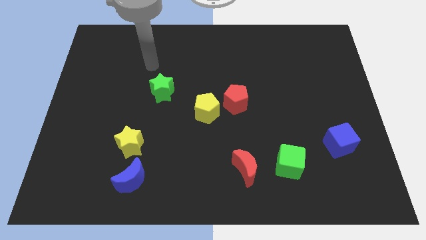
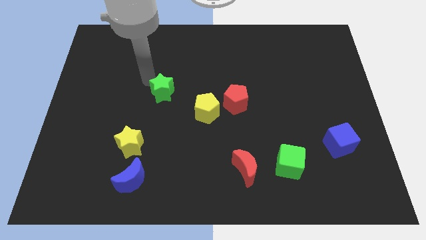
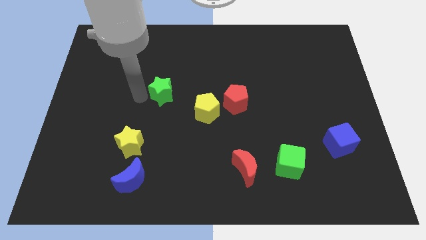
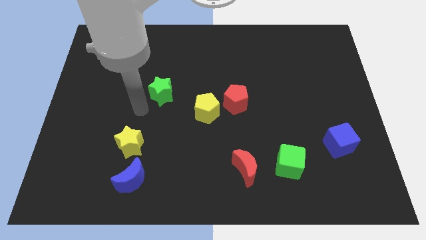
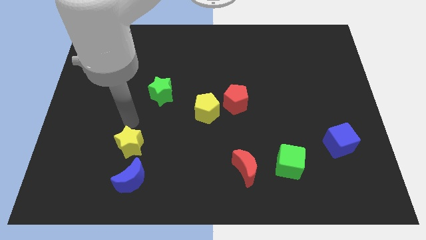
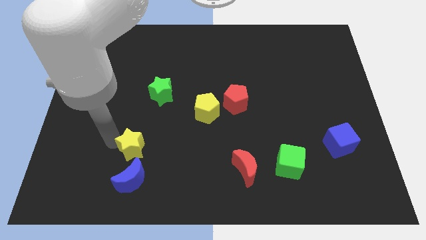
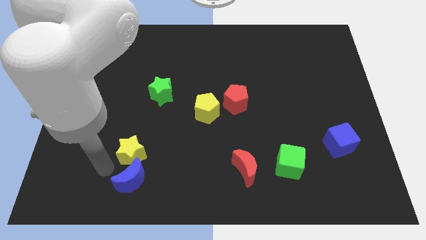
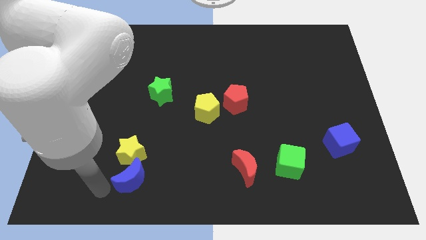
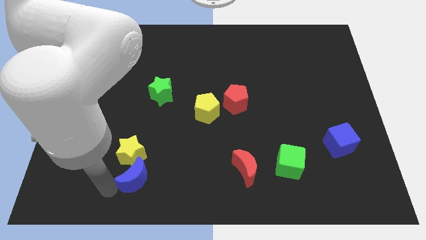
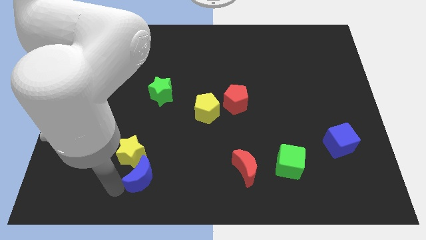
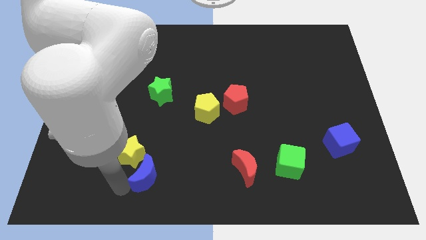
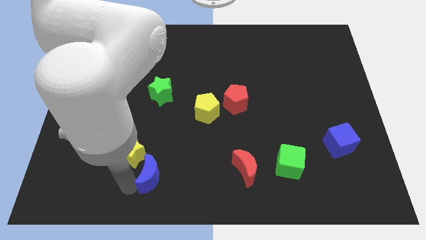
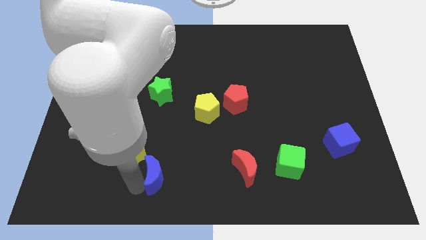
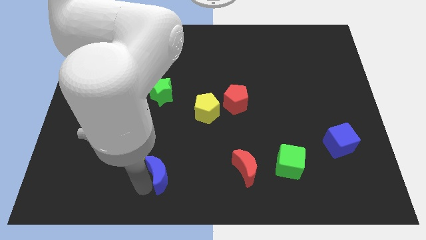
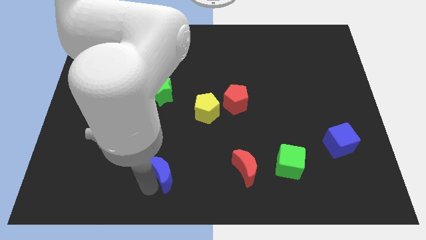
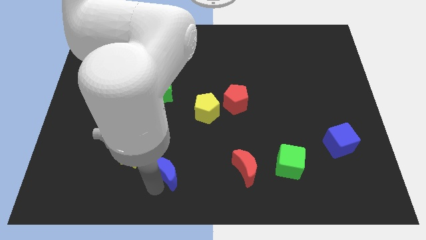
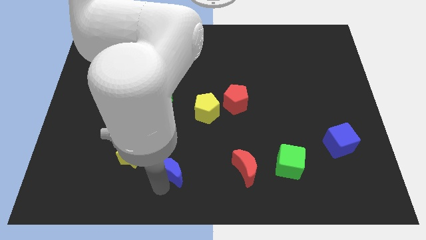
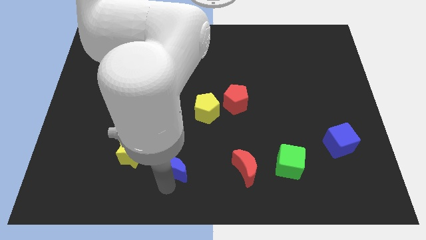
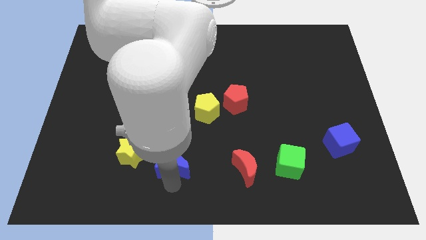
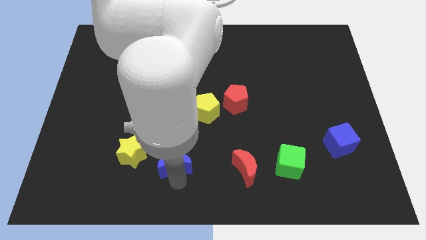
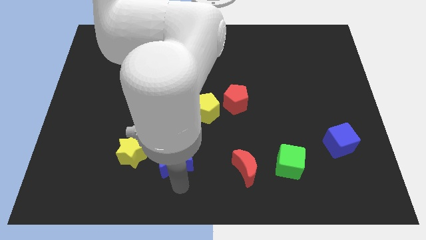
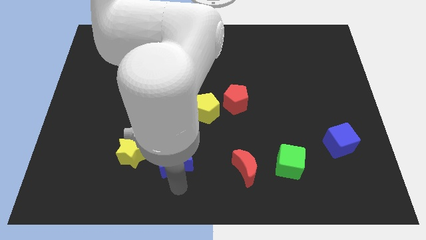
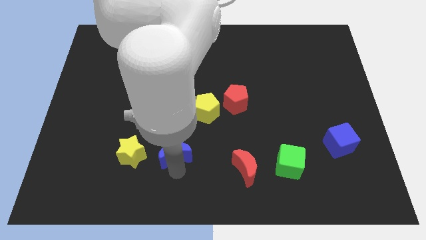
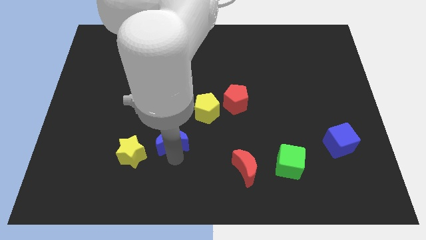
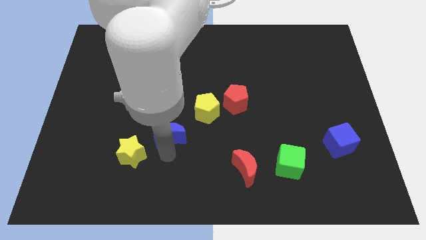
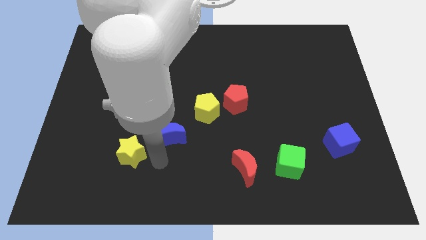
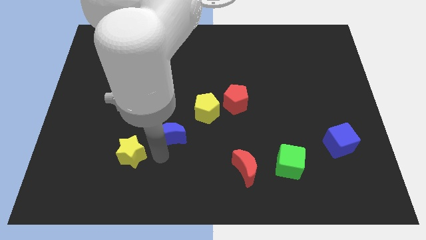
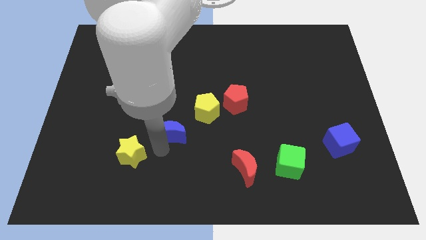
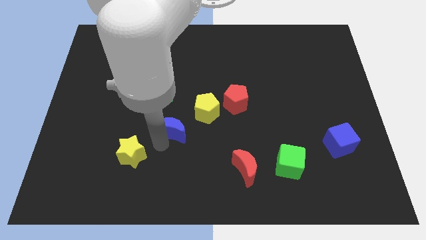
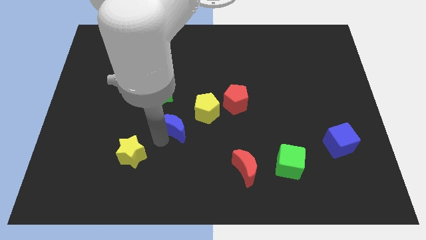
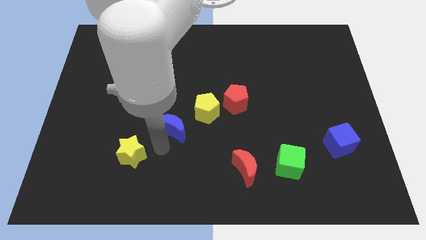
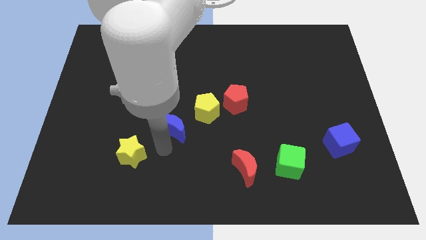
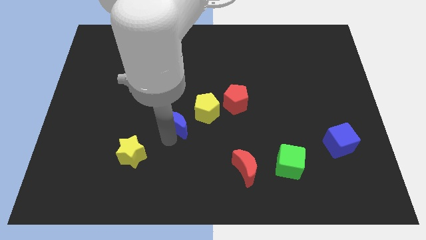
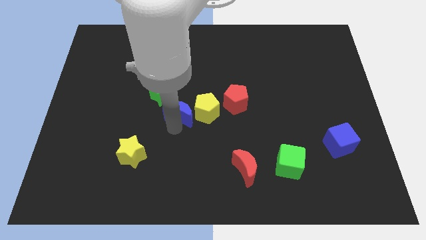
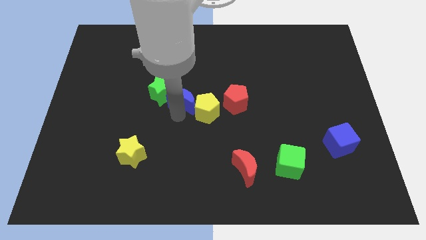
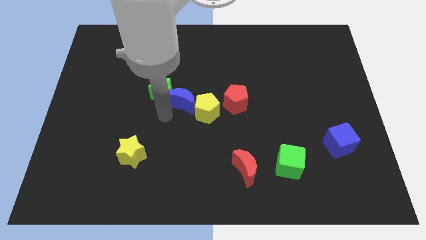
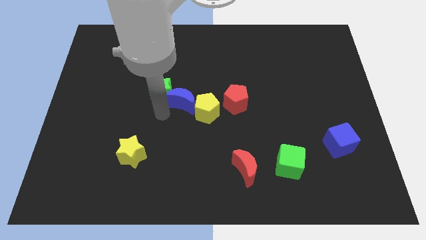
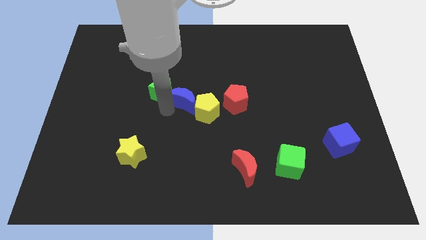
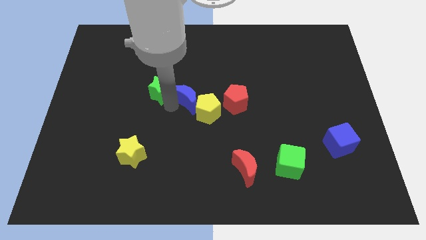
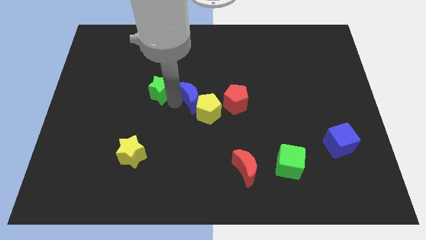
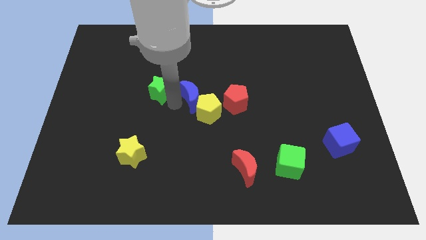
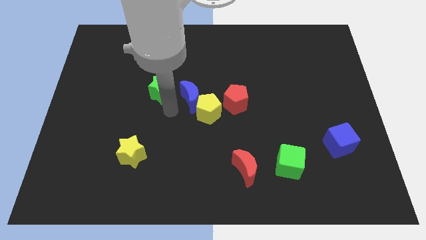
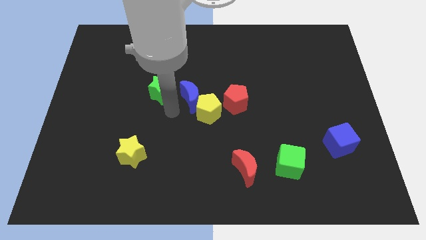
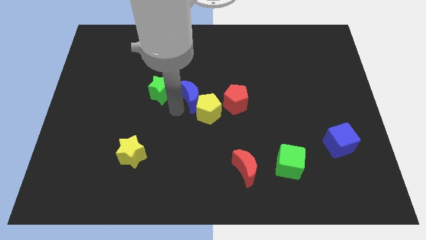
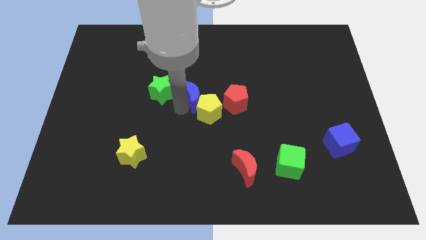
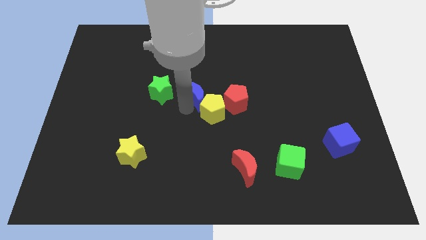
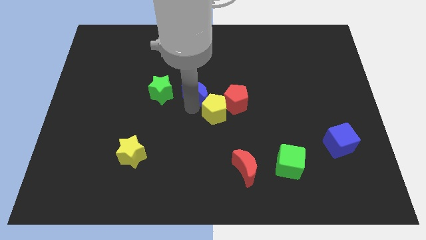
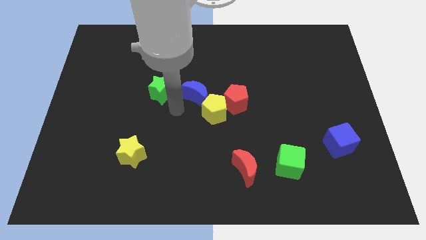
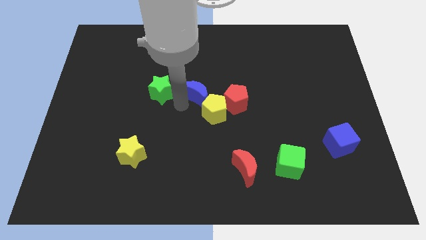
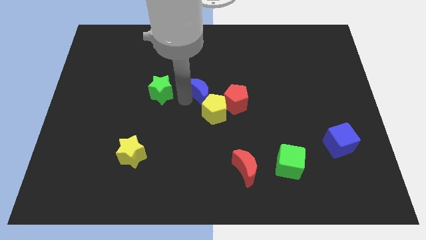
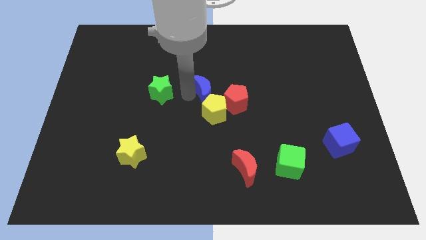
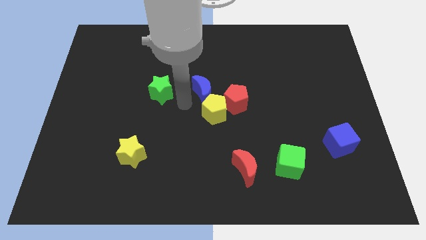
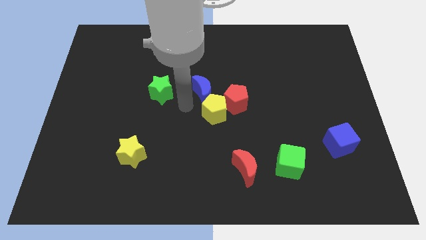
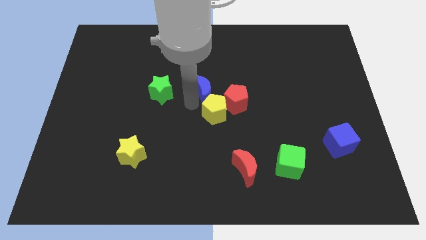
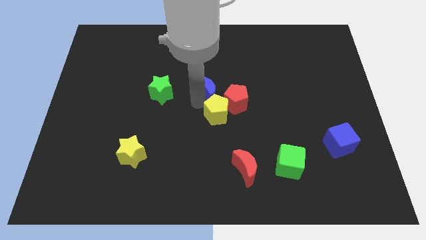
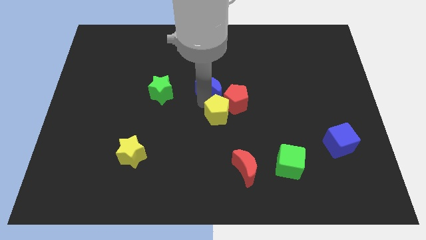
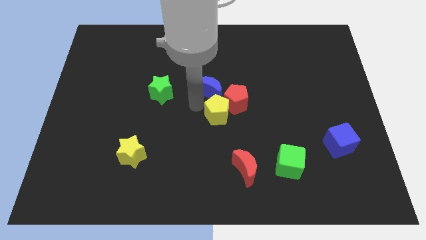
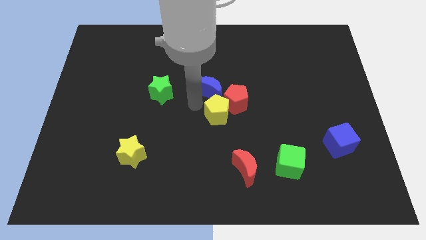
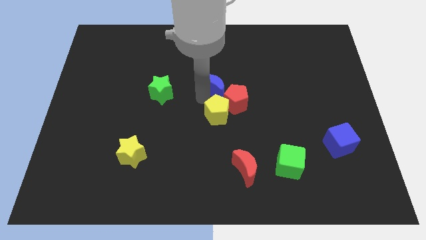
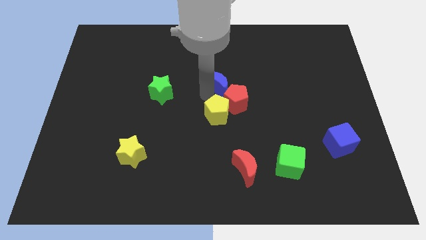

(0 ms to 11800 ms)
move the blue moon above the red pentagon

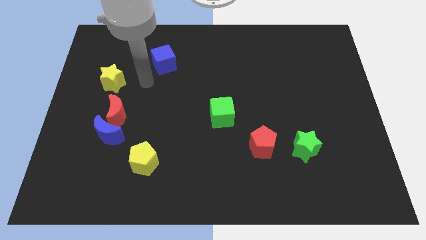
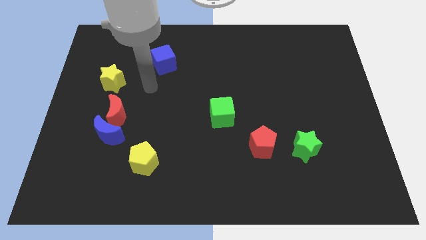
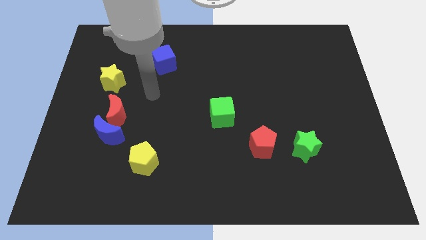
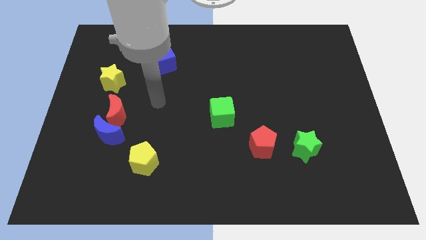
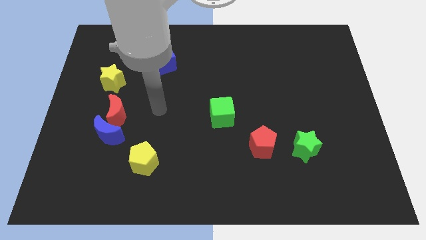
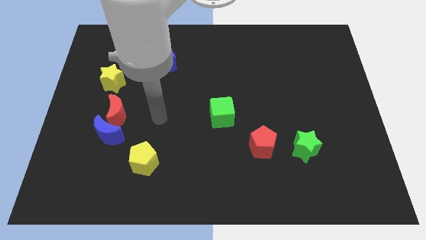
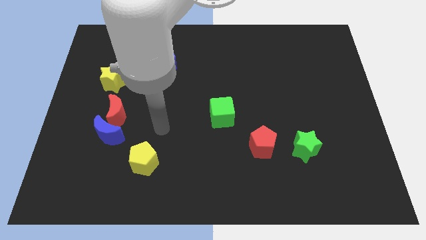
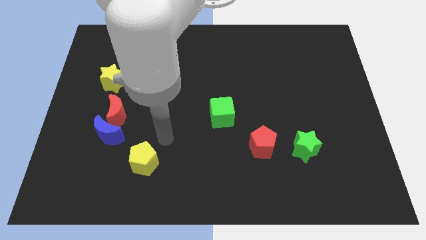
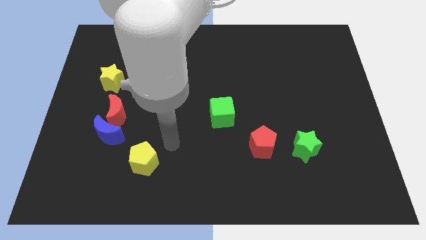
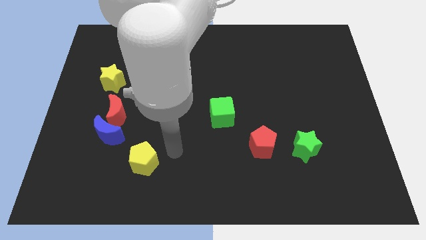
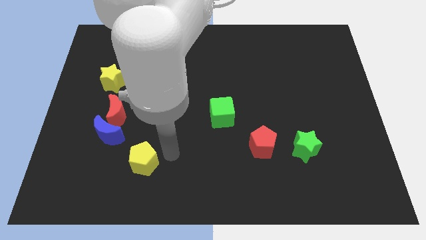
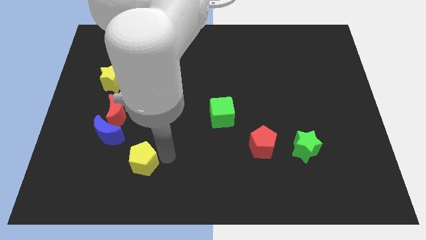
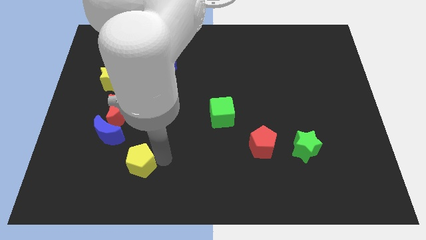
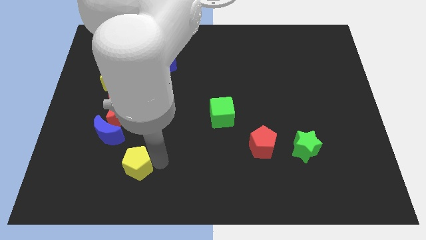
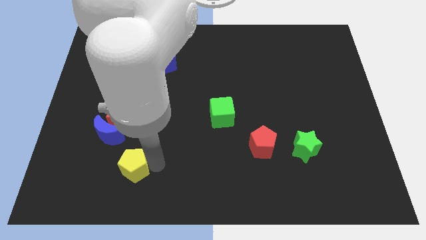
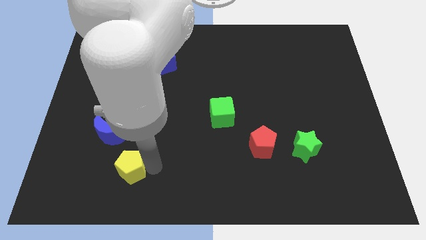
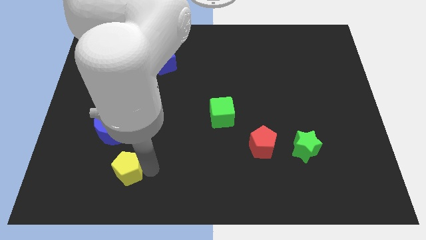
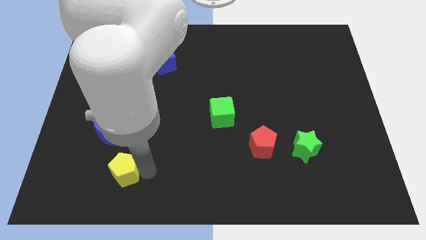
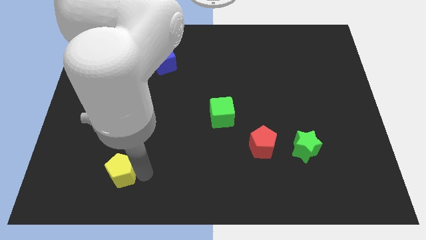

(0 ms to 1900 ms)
put the yellow pentagon below the blue moon
